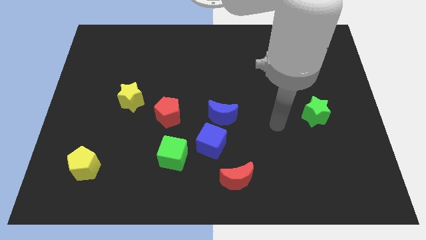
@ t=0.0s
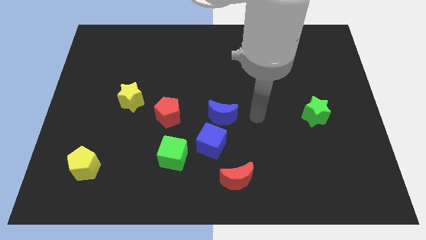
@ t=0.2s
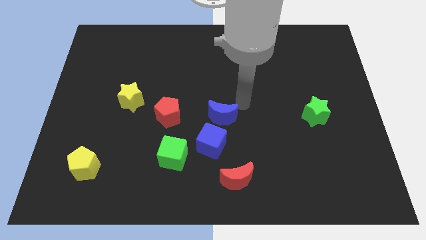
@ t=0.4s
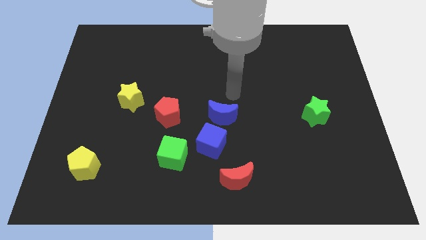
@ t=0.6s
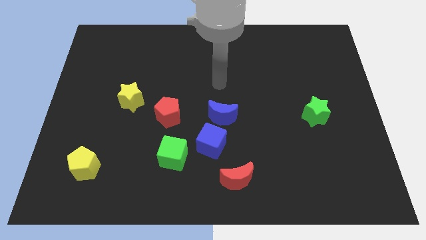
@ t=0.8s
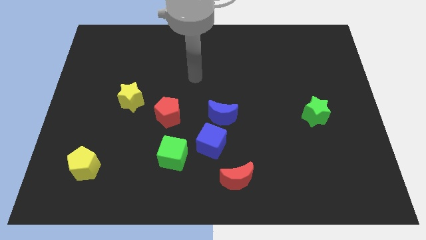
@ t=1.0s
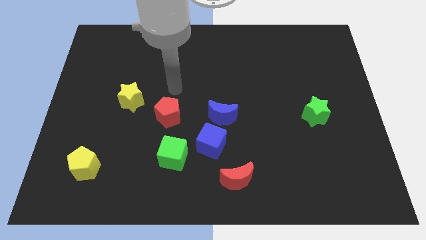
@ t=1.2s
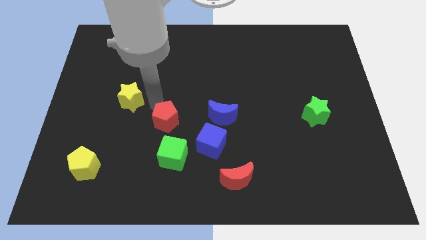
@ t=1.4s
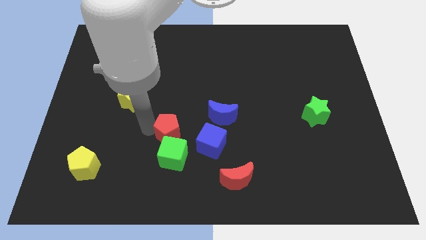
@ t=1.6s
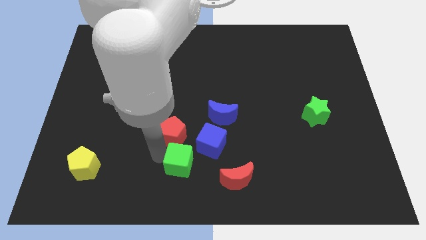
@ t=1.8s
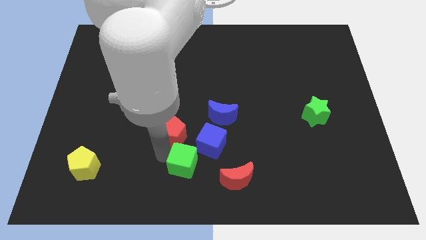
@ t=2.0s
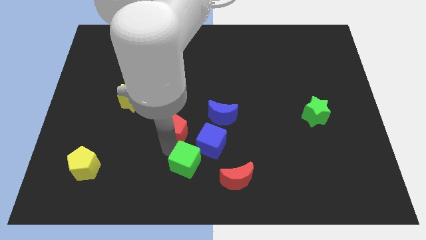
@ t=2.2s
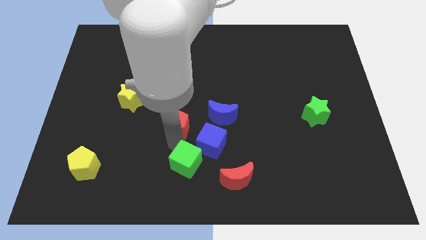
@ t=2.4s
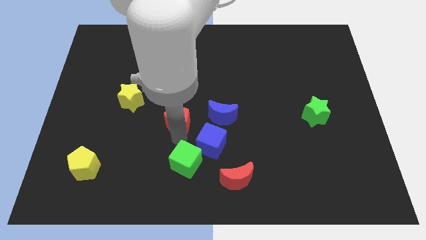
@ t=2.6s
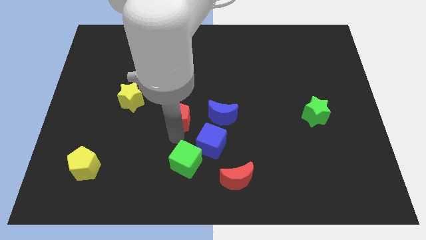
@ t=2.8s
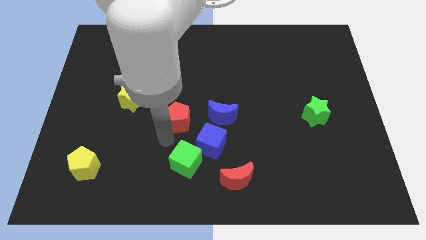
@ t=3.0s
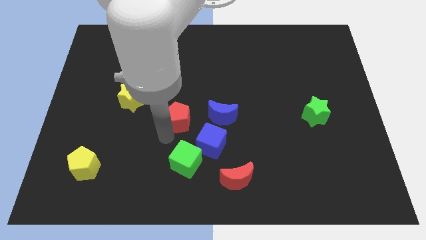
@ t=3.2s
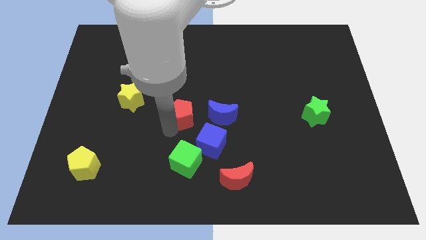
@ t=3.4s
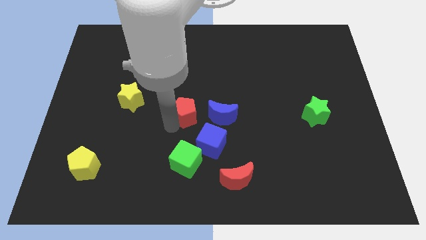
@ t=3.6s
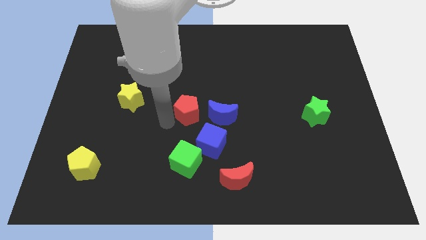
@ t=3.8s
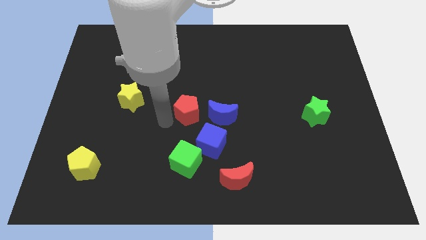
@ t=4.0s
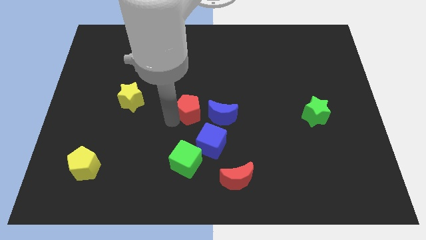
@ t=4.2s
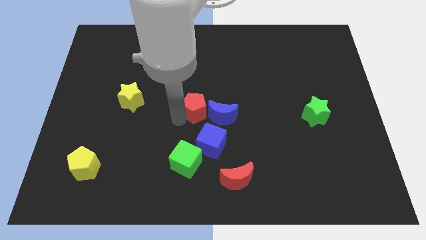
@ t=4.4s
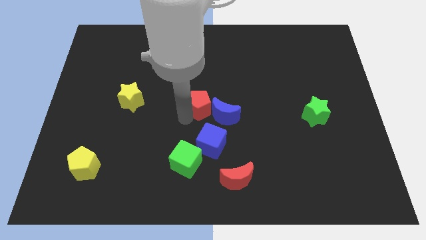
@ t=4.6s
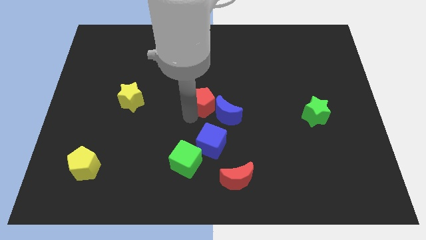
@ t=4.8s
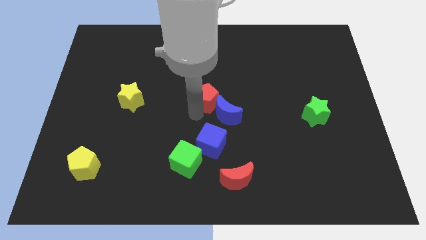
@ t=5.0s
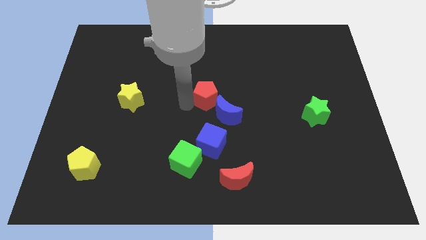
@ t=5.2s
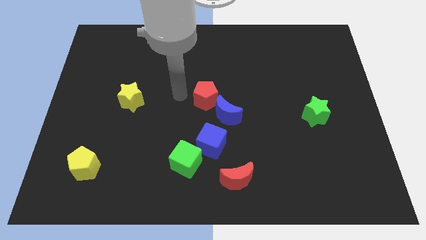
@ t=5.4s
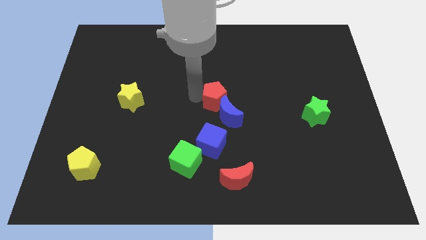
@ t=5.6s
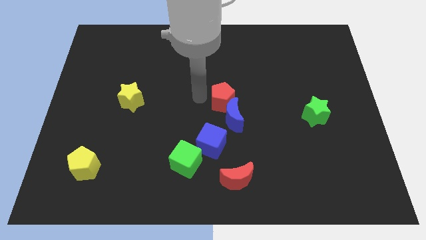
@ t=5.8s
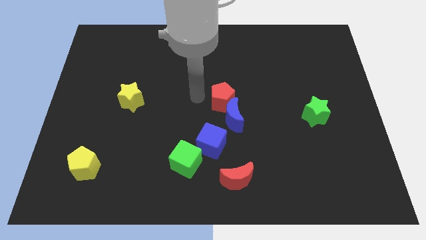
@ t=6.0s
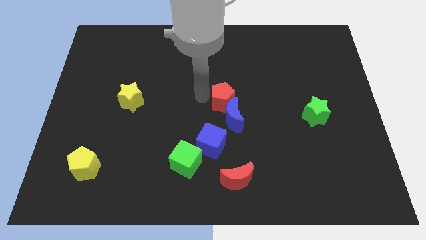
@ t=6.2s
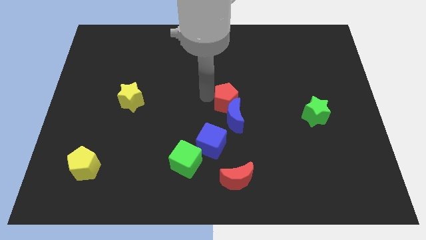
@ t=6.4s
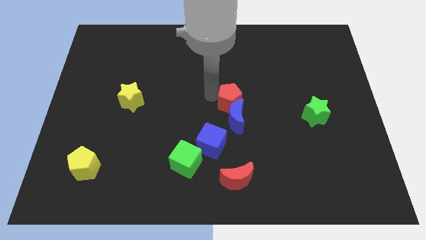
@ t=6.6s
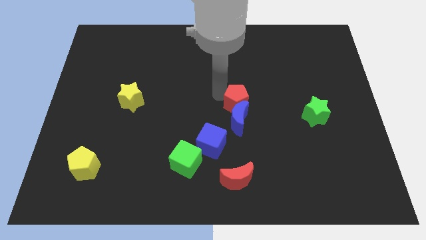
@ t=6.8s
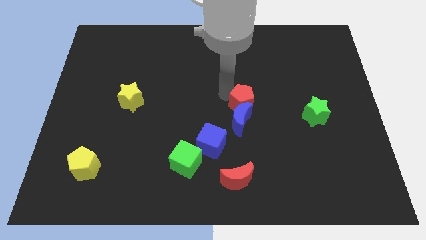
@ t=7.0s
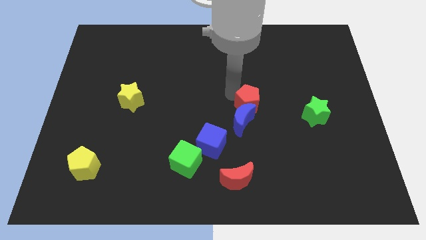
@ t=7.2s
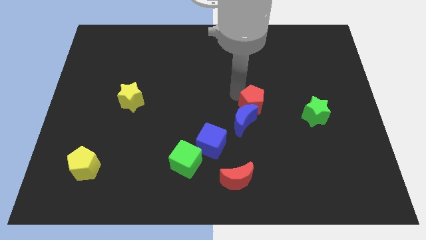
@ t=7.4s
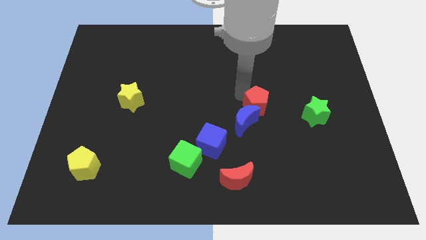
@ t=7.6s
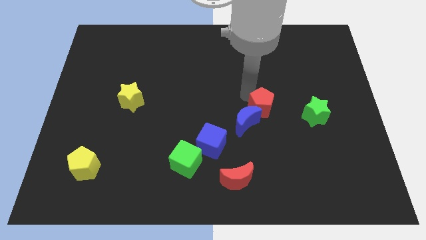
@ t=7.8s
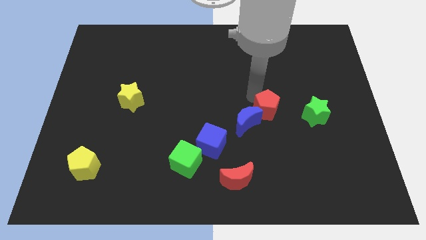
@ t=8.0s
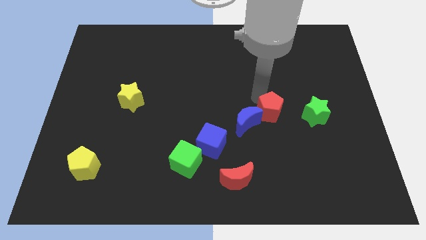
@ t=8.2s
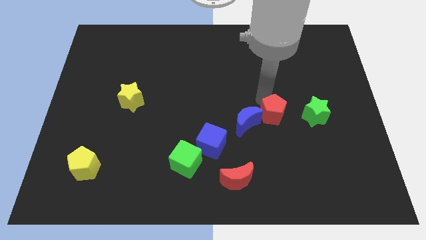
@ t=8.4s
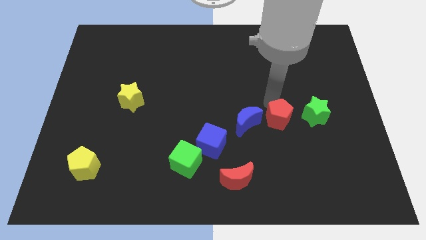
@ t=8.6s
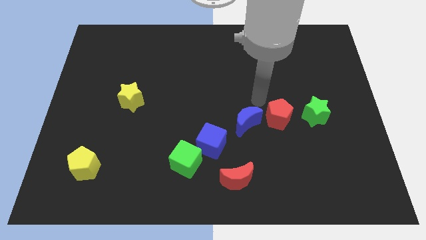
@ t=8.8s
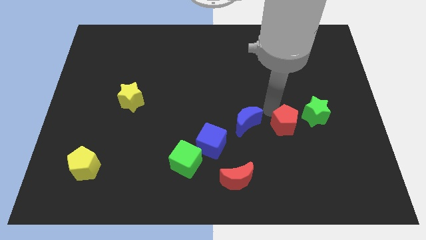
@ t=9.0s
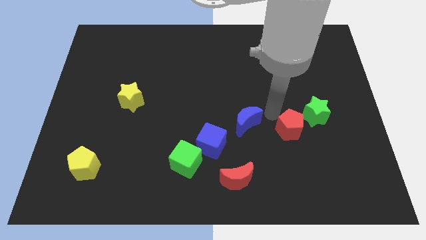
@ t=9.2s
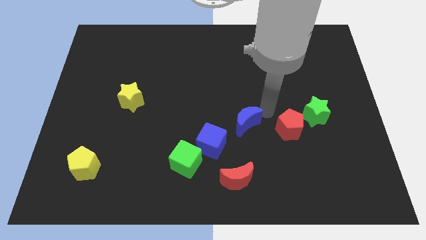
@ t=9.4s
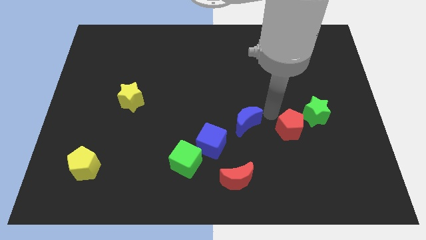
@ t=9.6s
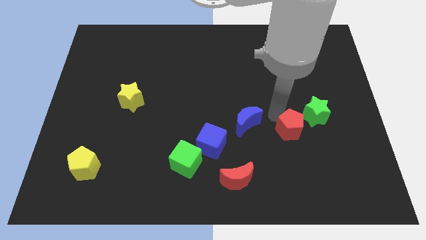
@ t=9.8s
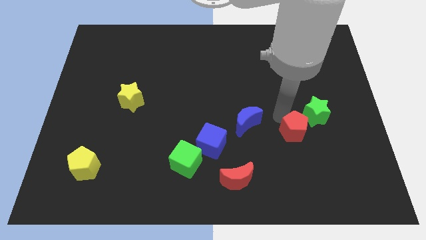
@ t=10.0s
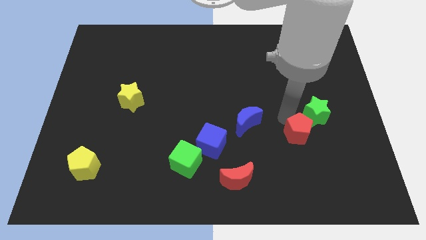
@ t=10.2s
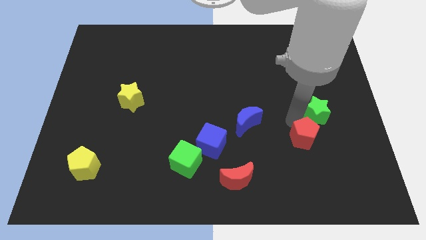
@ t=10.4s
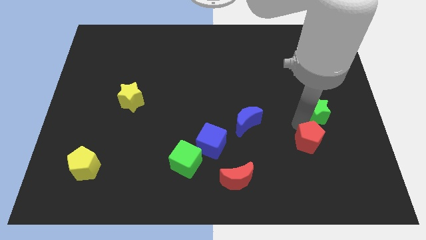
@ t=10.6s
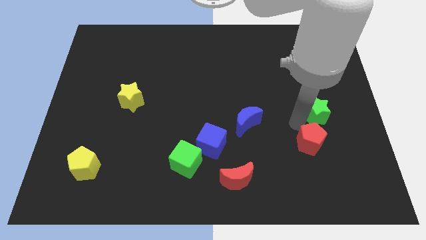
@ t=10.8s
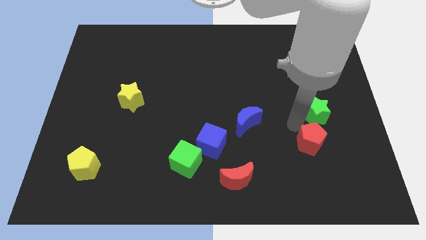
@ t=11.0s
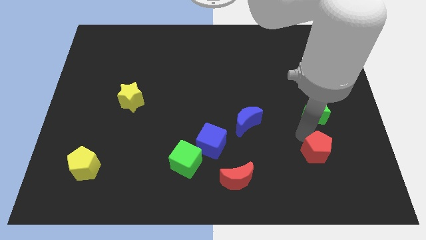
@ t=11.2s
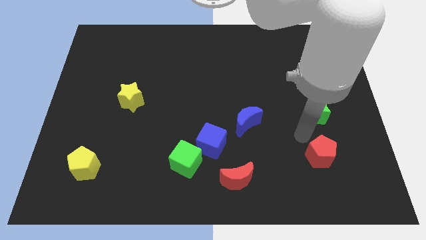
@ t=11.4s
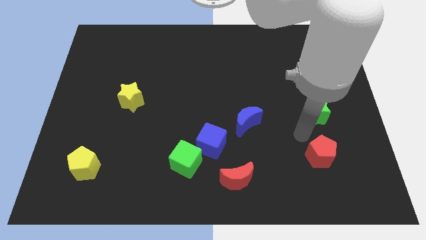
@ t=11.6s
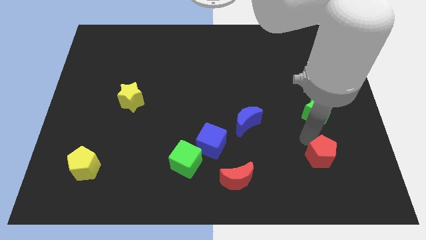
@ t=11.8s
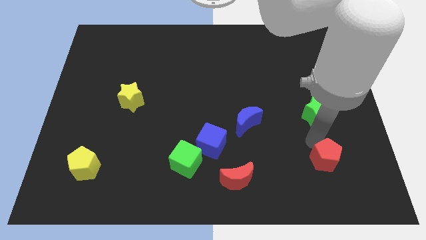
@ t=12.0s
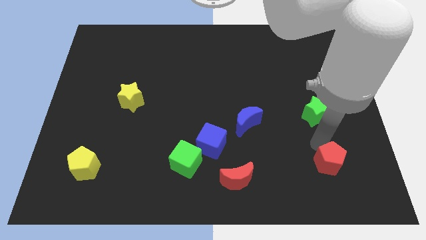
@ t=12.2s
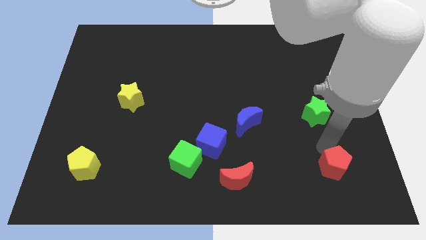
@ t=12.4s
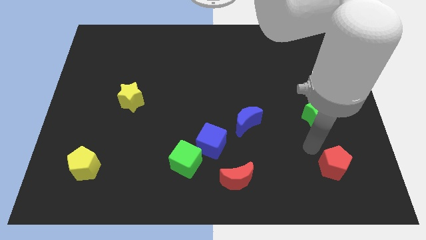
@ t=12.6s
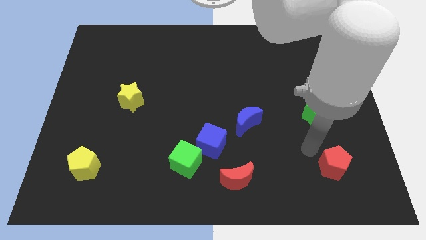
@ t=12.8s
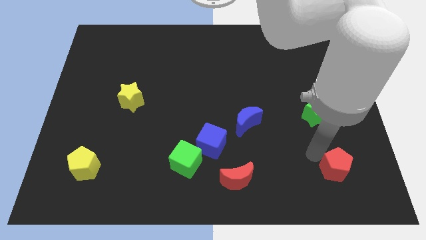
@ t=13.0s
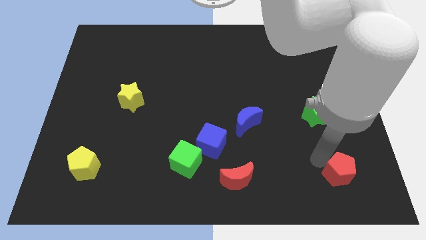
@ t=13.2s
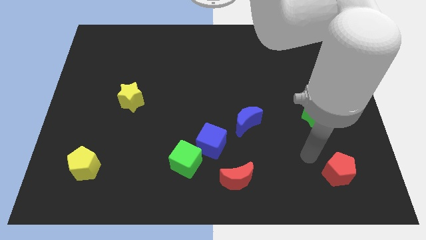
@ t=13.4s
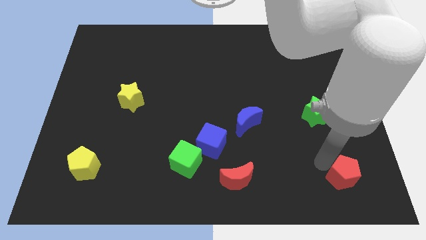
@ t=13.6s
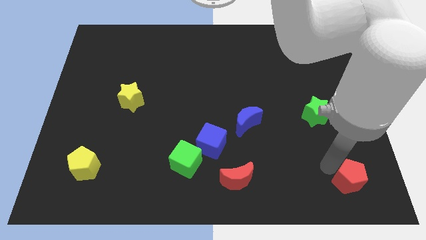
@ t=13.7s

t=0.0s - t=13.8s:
move the red pentagon to the bottom right of the board
